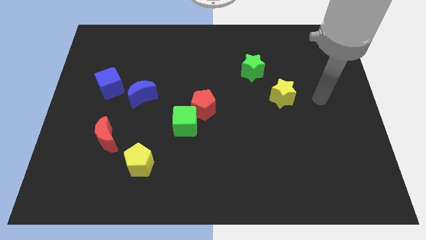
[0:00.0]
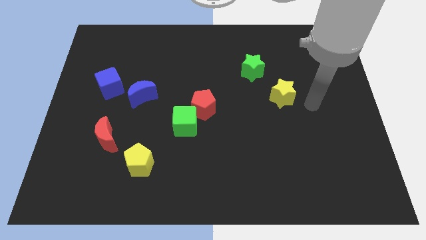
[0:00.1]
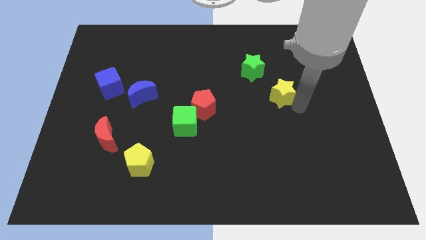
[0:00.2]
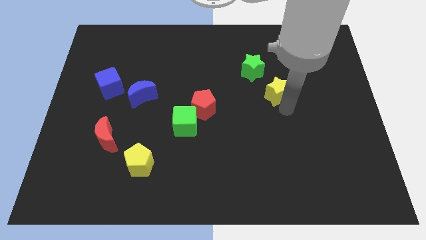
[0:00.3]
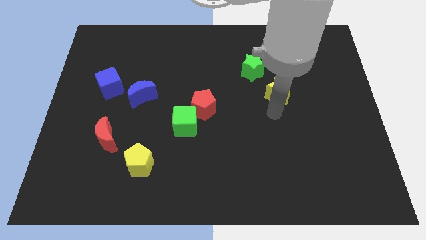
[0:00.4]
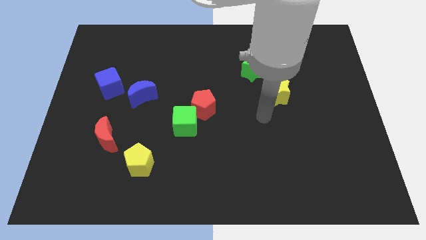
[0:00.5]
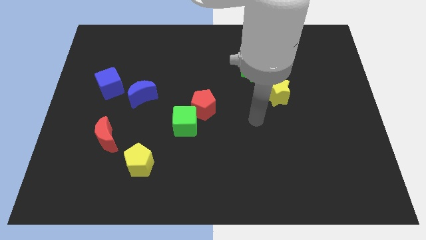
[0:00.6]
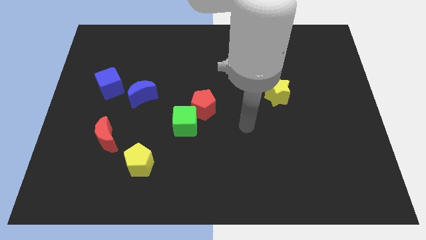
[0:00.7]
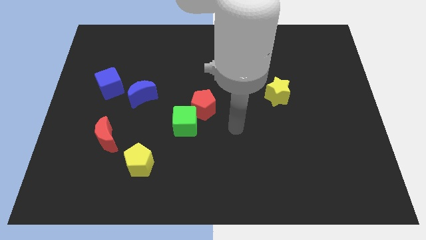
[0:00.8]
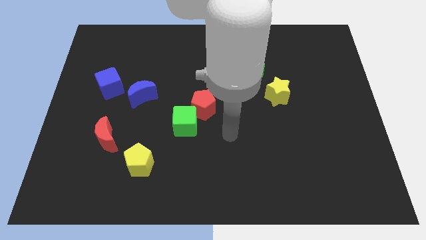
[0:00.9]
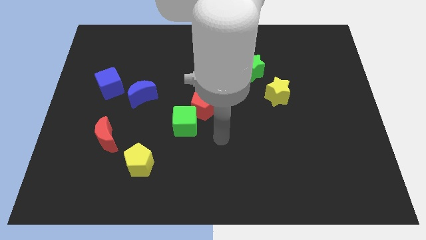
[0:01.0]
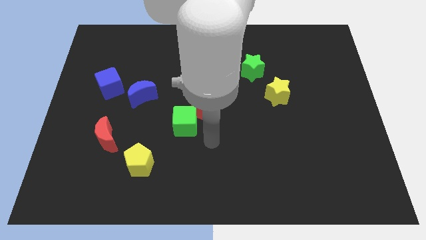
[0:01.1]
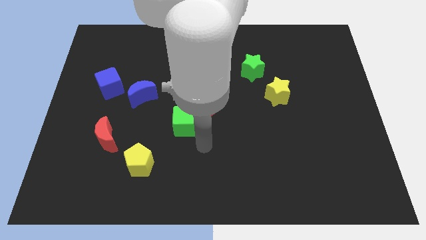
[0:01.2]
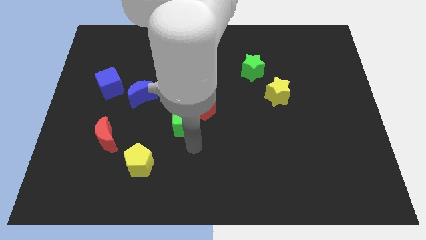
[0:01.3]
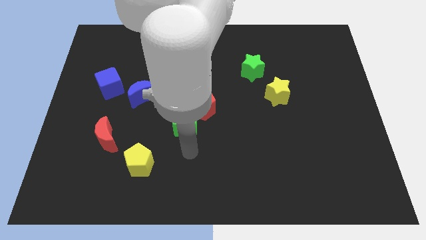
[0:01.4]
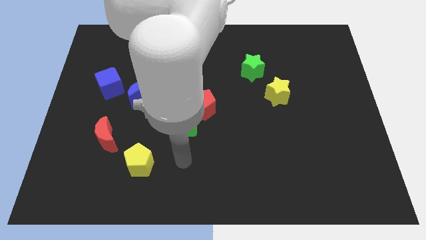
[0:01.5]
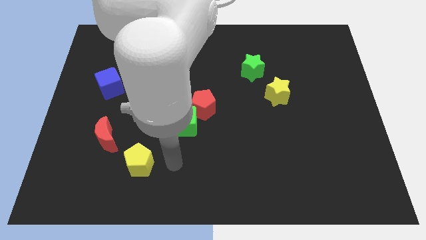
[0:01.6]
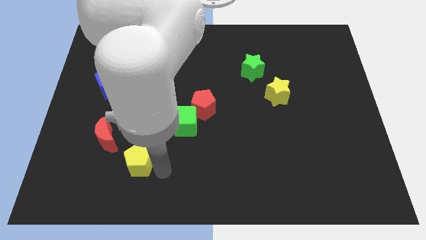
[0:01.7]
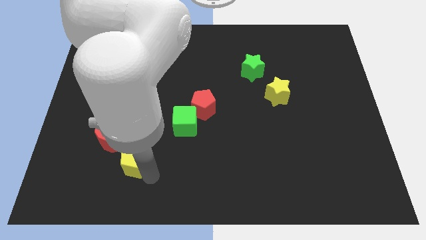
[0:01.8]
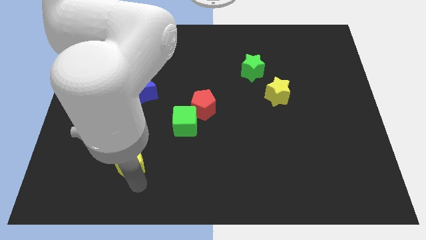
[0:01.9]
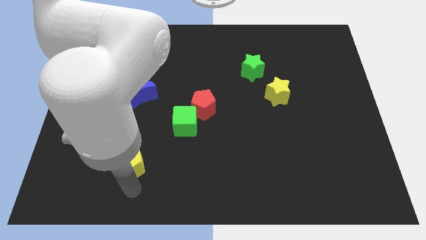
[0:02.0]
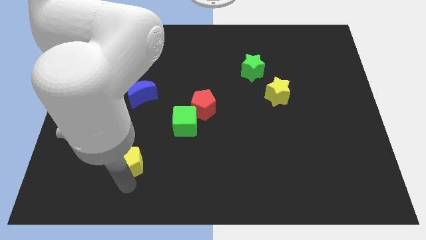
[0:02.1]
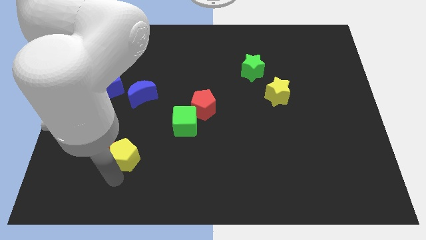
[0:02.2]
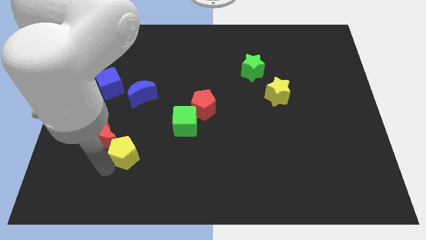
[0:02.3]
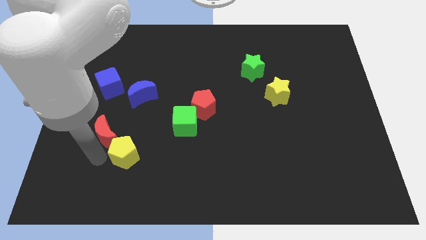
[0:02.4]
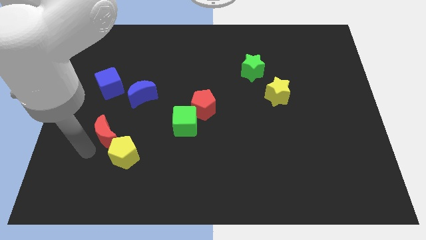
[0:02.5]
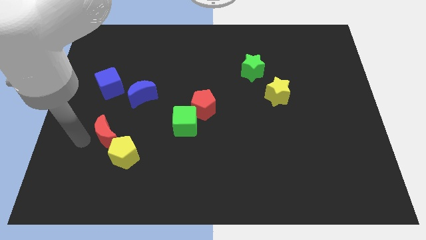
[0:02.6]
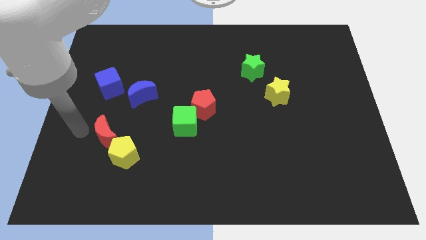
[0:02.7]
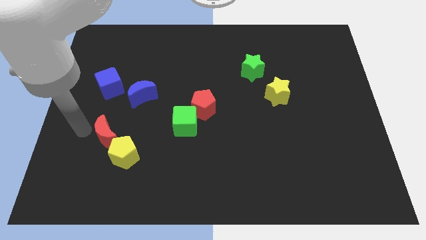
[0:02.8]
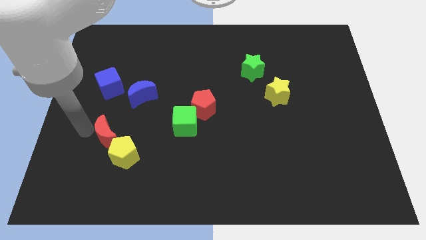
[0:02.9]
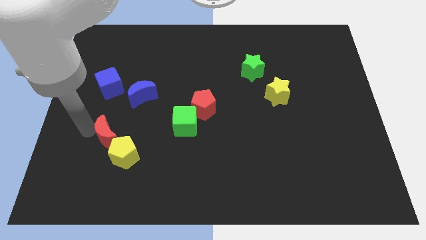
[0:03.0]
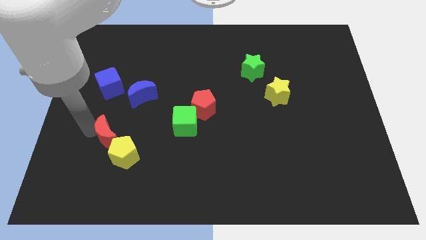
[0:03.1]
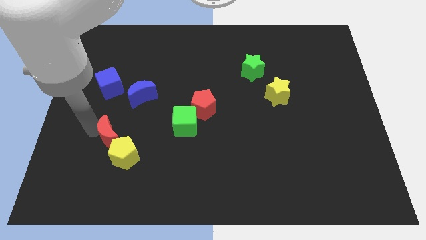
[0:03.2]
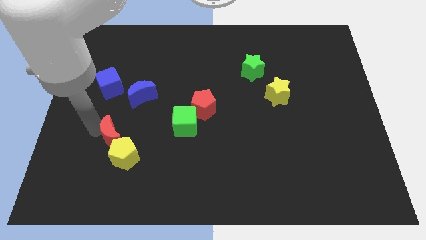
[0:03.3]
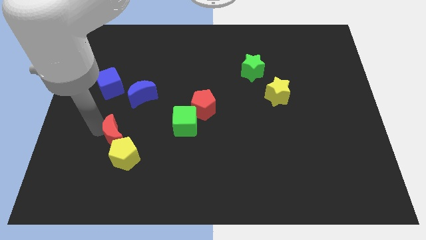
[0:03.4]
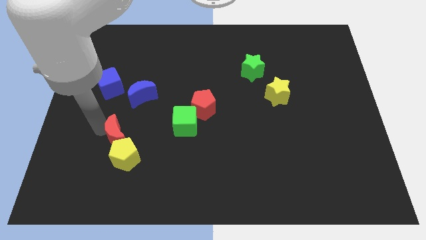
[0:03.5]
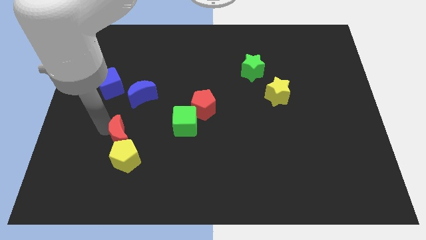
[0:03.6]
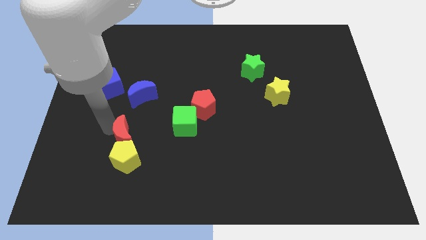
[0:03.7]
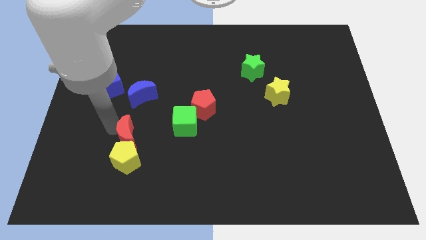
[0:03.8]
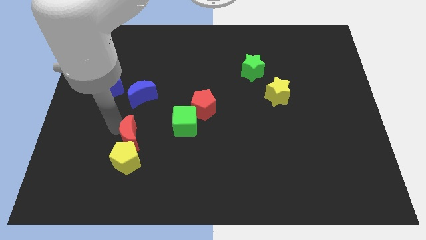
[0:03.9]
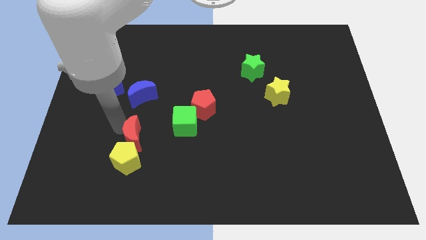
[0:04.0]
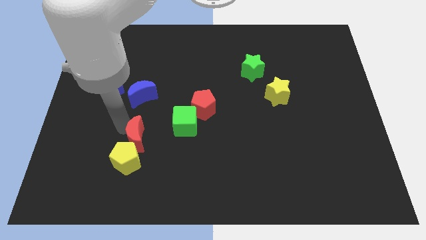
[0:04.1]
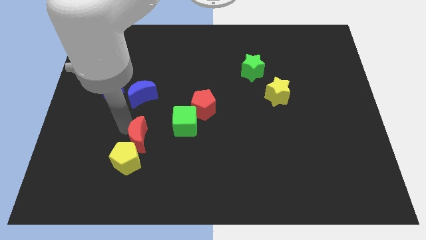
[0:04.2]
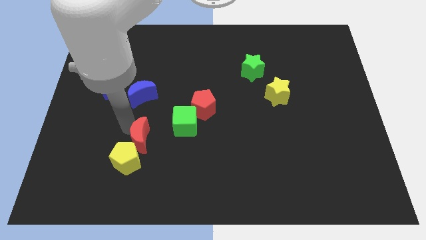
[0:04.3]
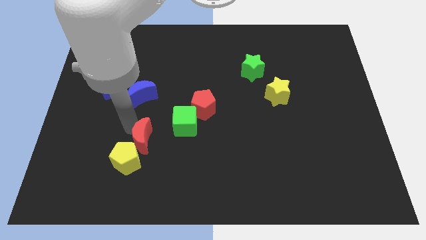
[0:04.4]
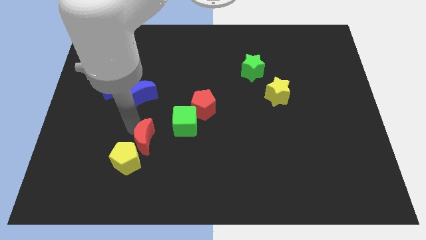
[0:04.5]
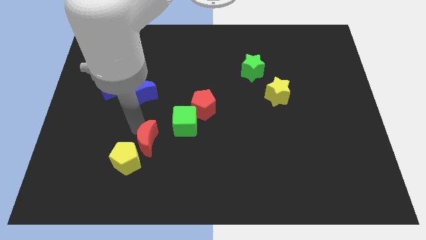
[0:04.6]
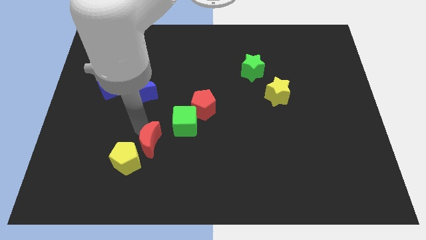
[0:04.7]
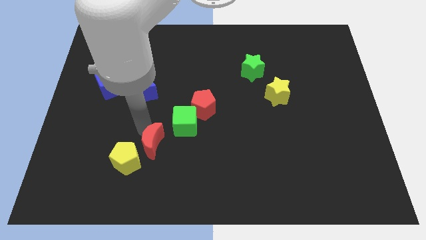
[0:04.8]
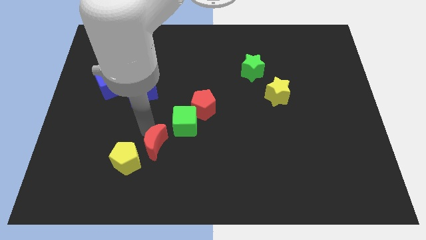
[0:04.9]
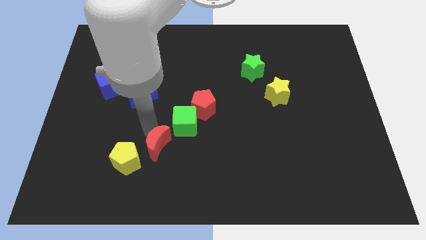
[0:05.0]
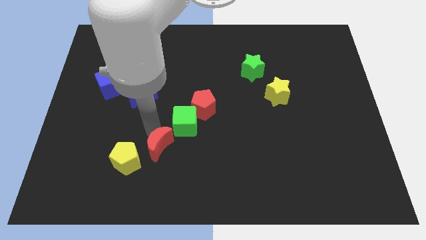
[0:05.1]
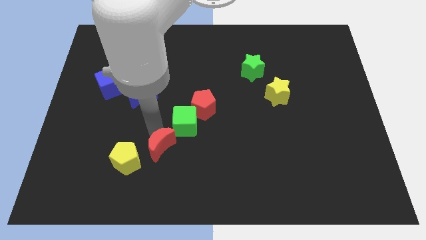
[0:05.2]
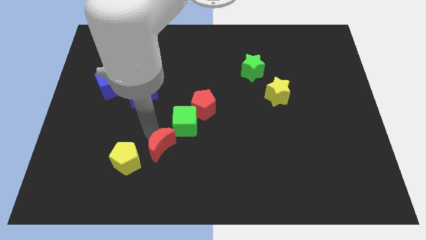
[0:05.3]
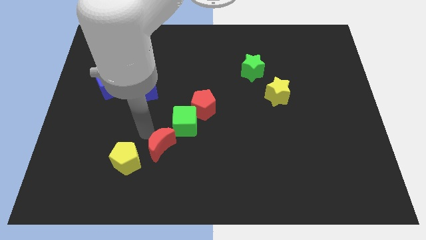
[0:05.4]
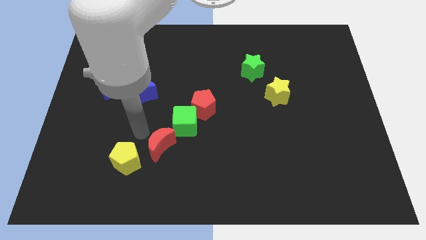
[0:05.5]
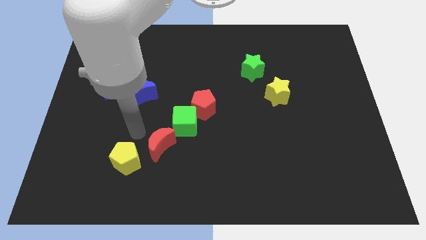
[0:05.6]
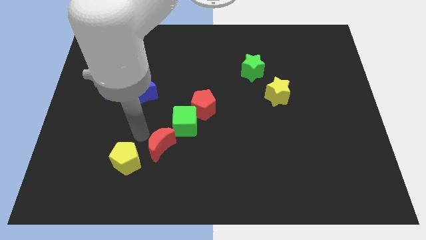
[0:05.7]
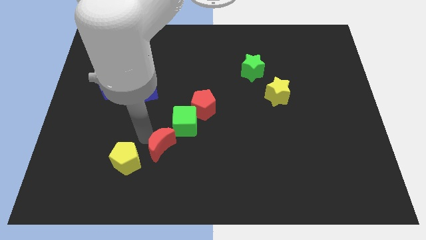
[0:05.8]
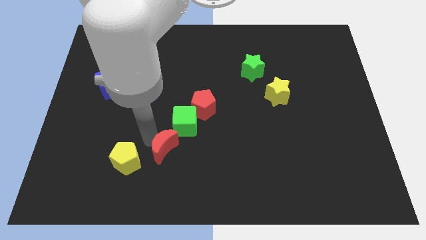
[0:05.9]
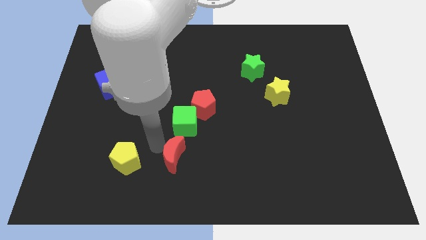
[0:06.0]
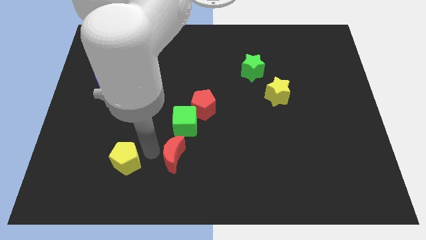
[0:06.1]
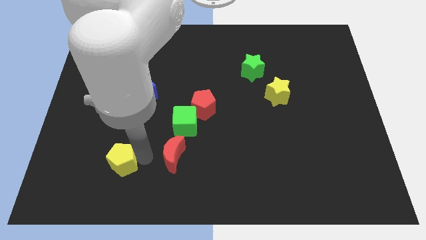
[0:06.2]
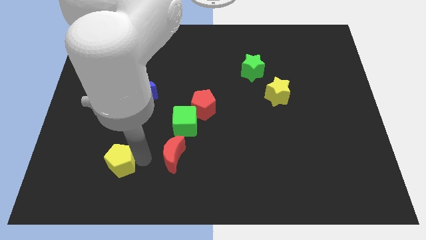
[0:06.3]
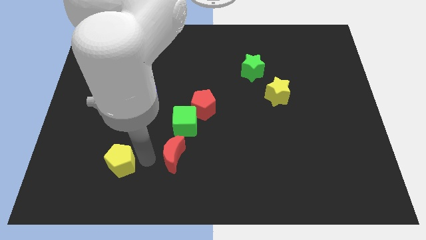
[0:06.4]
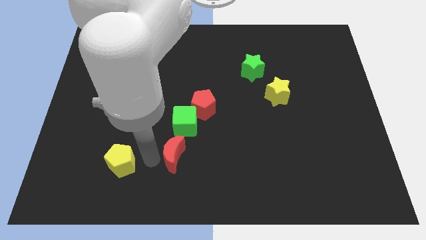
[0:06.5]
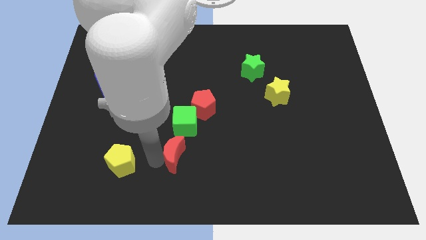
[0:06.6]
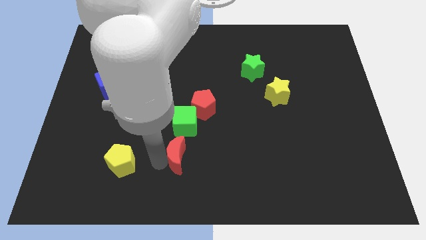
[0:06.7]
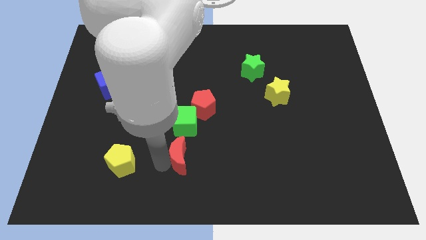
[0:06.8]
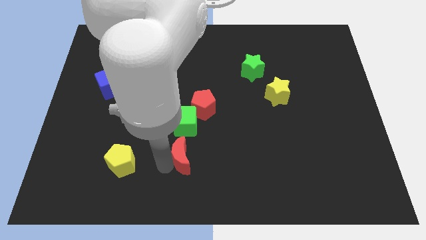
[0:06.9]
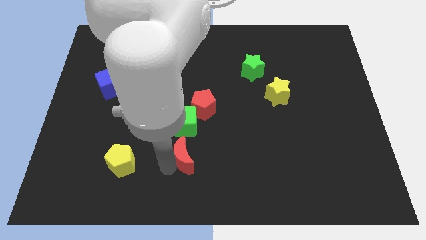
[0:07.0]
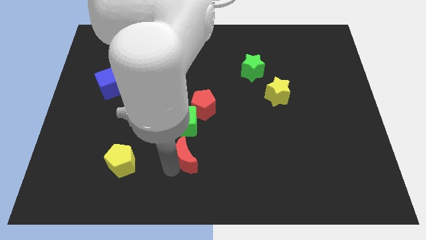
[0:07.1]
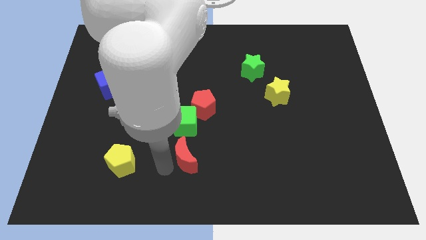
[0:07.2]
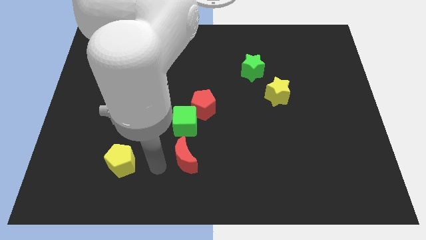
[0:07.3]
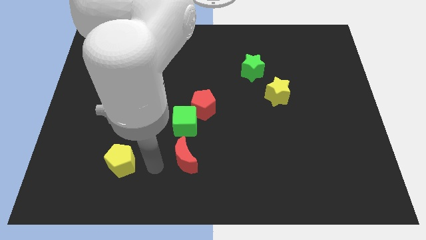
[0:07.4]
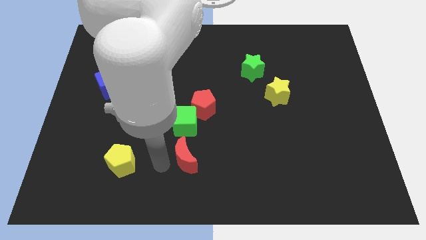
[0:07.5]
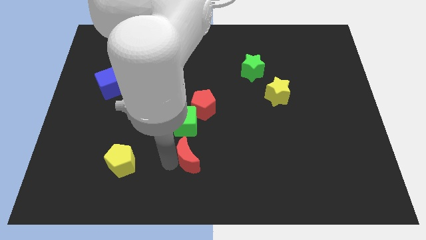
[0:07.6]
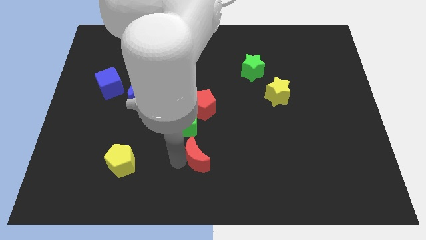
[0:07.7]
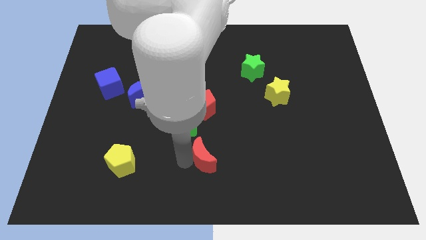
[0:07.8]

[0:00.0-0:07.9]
push the red moon right
